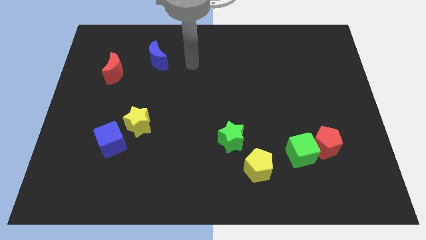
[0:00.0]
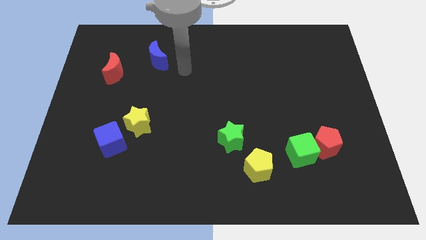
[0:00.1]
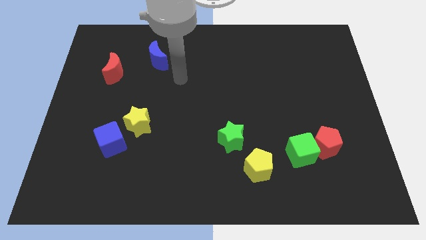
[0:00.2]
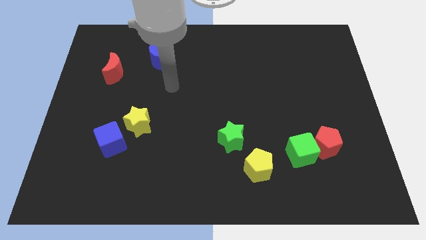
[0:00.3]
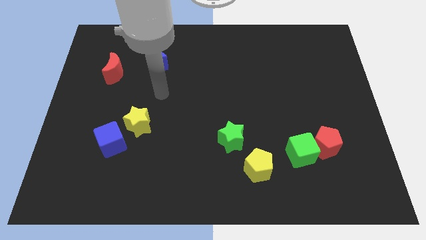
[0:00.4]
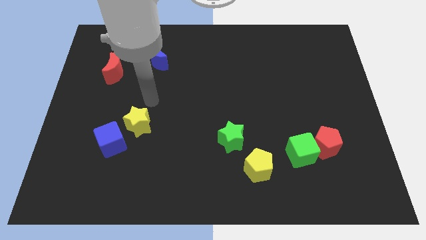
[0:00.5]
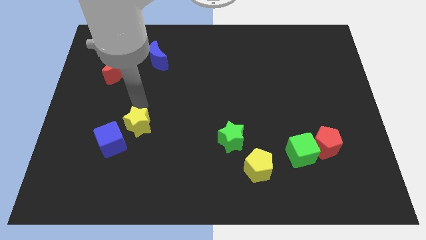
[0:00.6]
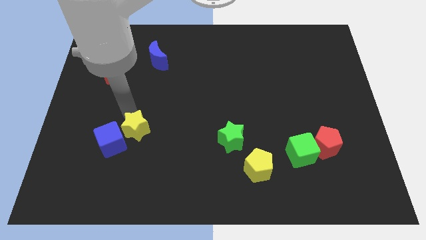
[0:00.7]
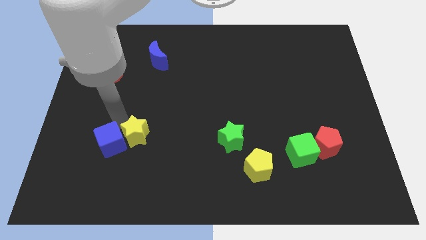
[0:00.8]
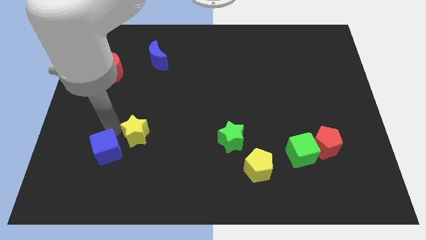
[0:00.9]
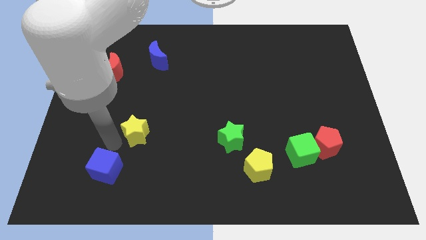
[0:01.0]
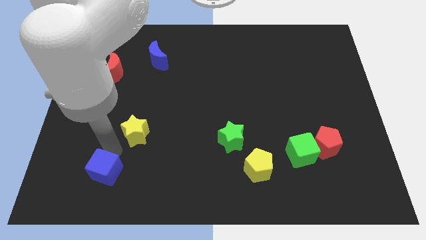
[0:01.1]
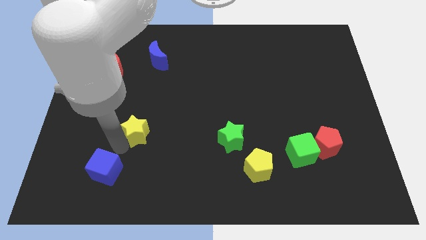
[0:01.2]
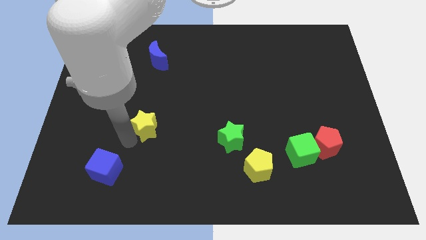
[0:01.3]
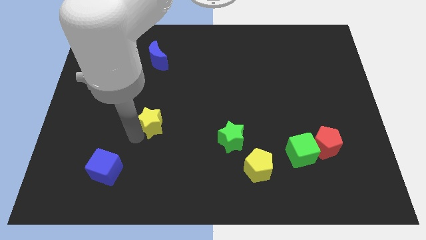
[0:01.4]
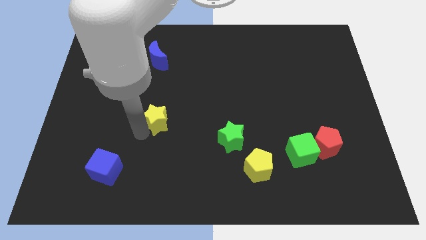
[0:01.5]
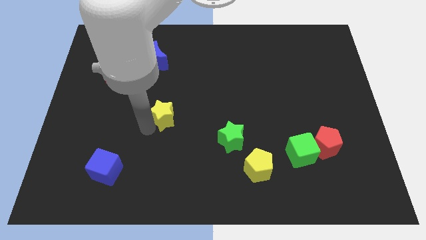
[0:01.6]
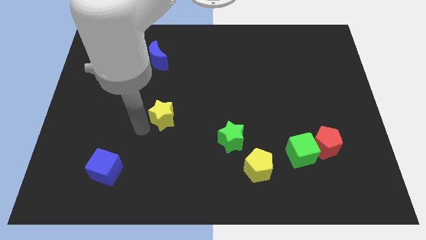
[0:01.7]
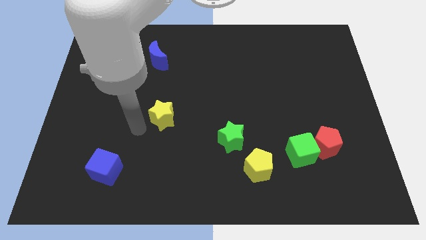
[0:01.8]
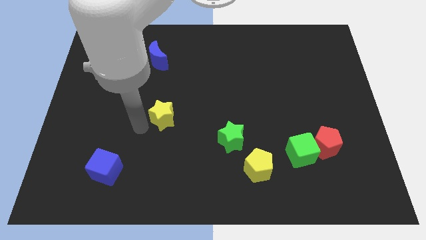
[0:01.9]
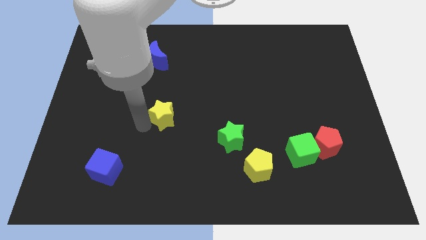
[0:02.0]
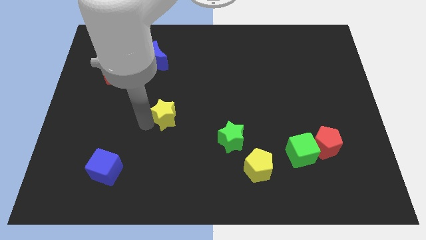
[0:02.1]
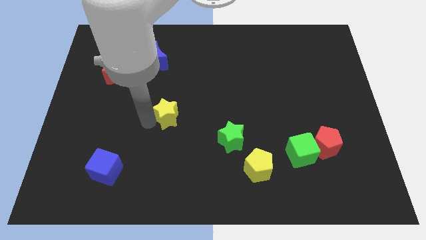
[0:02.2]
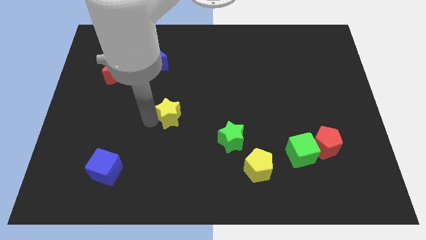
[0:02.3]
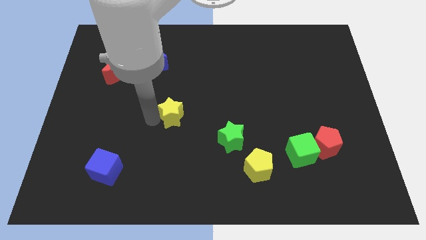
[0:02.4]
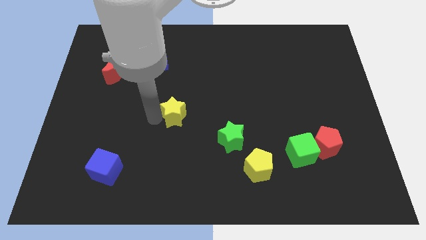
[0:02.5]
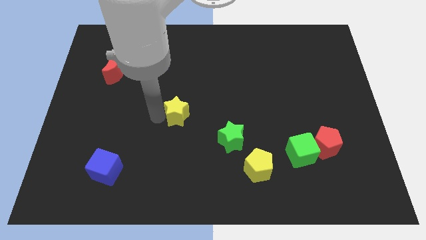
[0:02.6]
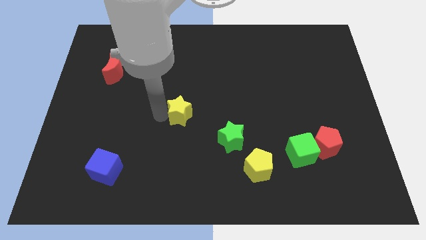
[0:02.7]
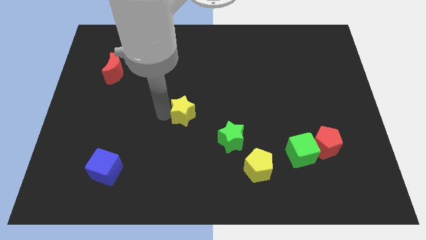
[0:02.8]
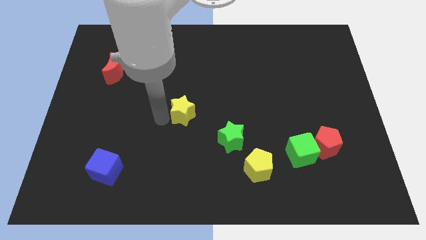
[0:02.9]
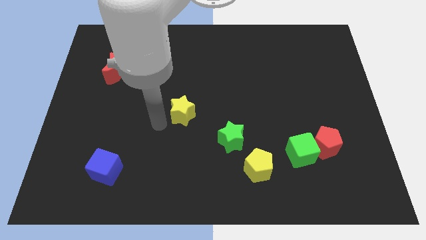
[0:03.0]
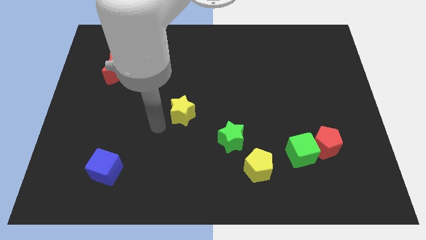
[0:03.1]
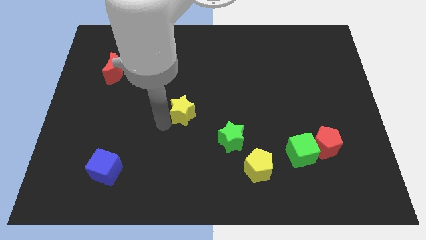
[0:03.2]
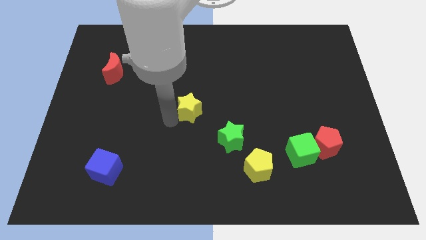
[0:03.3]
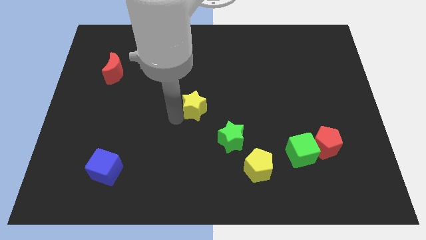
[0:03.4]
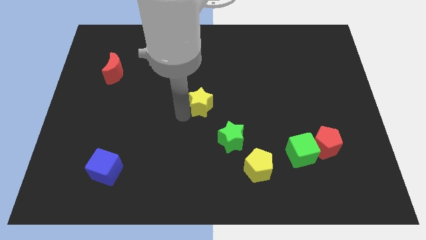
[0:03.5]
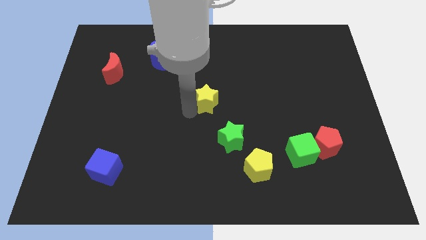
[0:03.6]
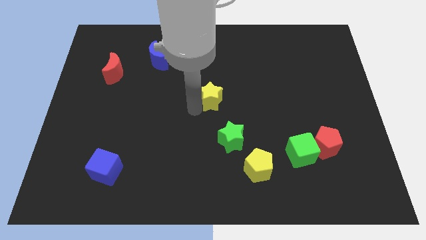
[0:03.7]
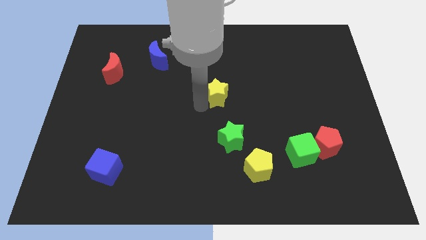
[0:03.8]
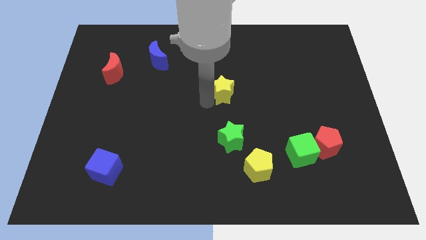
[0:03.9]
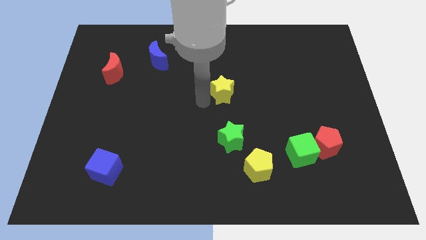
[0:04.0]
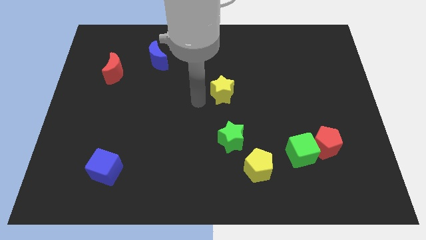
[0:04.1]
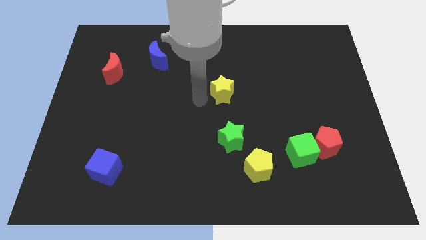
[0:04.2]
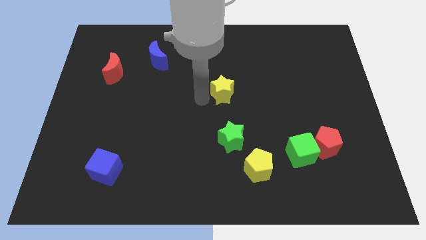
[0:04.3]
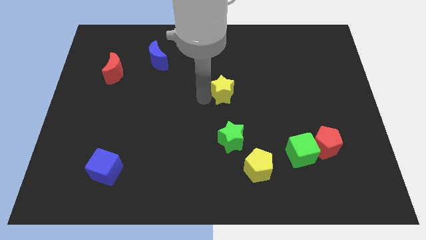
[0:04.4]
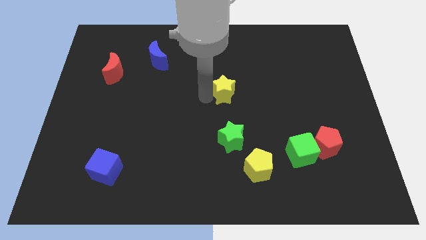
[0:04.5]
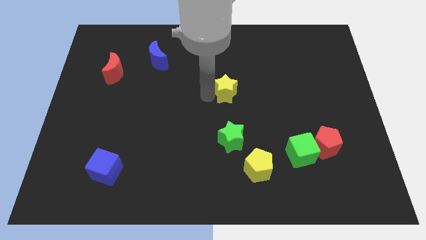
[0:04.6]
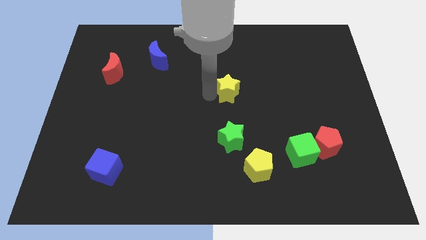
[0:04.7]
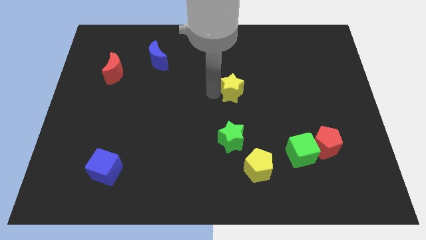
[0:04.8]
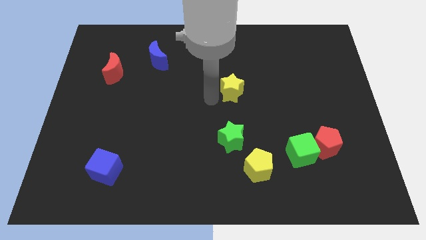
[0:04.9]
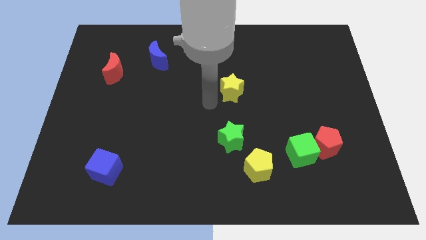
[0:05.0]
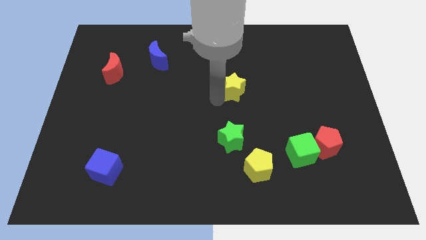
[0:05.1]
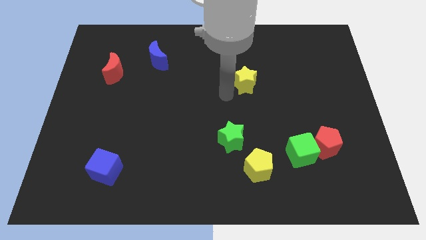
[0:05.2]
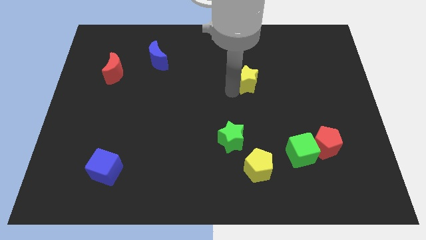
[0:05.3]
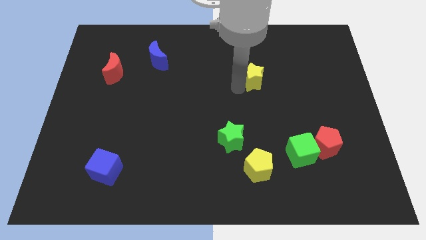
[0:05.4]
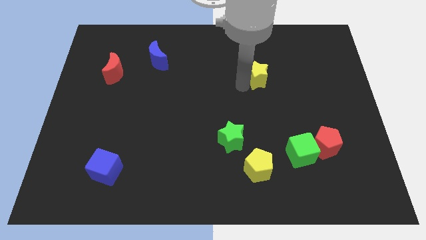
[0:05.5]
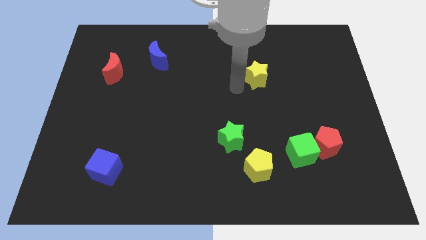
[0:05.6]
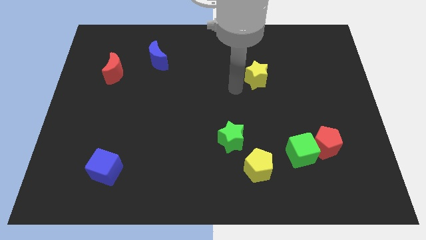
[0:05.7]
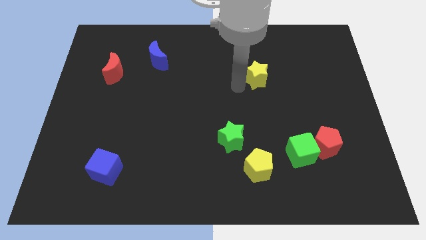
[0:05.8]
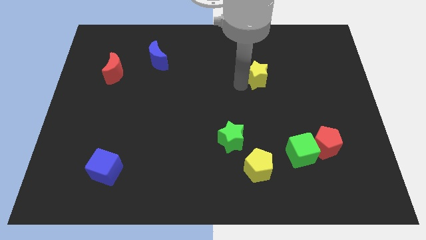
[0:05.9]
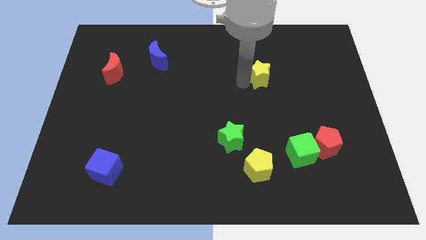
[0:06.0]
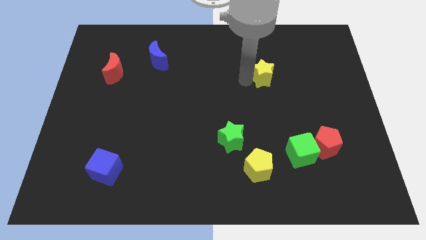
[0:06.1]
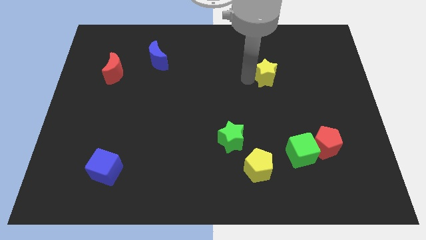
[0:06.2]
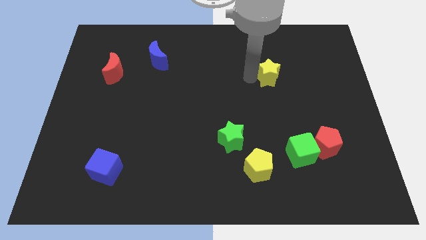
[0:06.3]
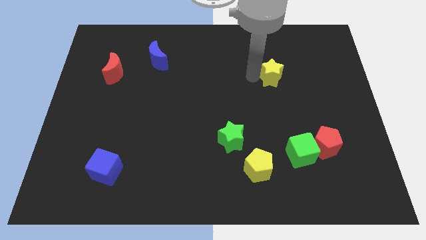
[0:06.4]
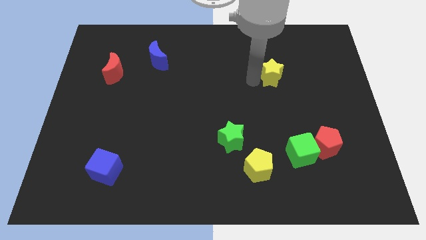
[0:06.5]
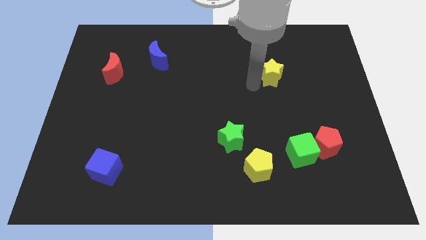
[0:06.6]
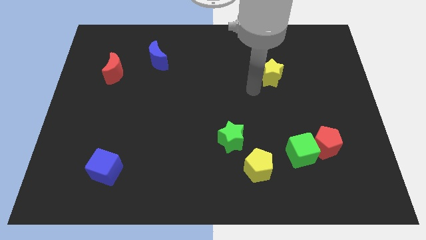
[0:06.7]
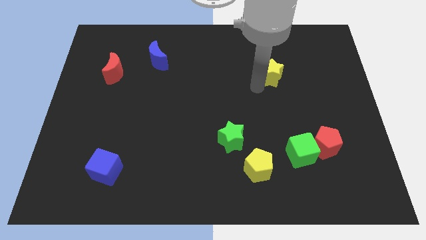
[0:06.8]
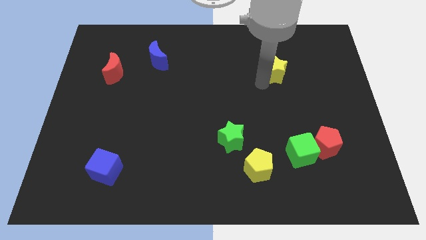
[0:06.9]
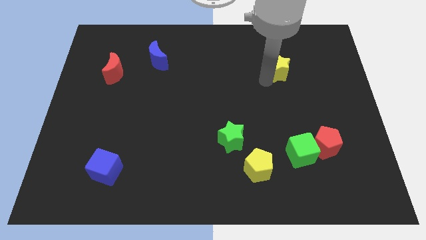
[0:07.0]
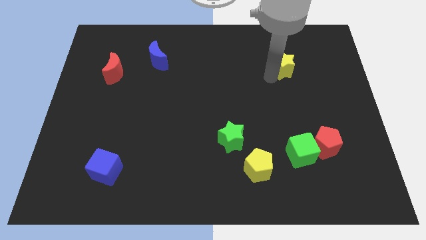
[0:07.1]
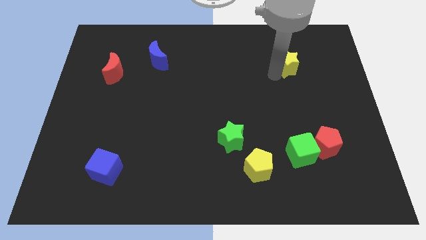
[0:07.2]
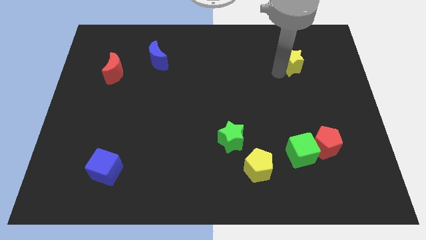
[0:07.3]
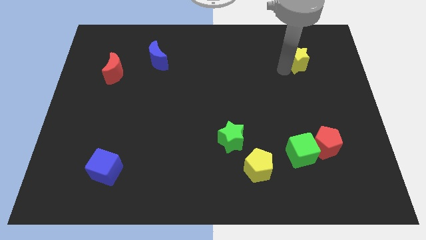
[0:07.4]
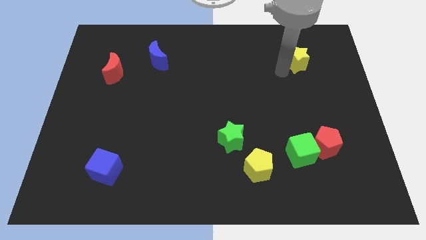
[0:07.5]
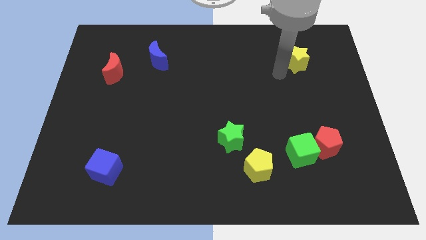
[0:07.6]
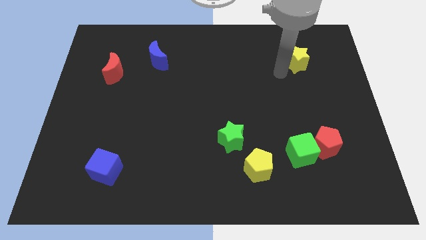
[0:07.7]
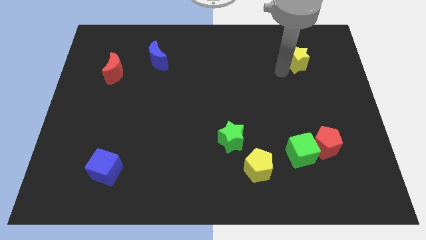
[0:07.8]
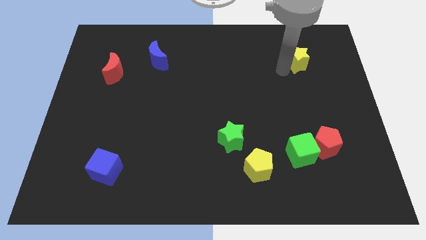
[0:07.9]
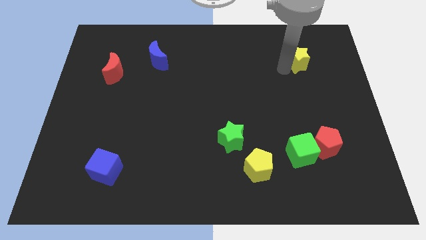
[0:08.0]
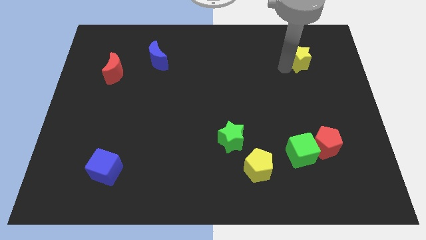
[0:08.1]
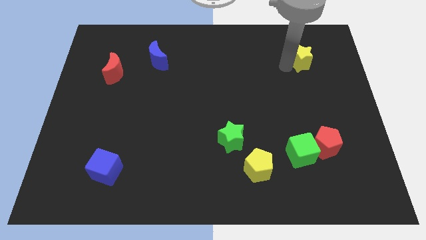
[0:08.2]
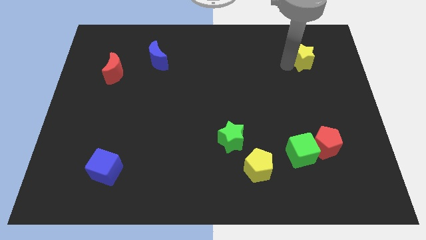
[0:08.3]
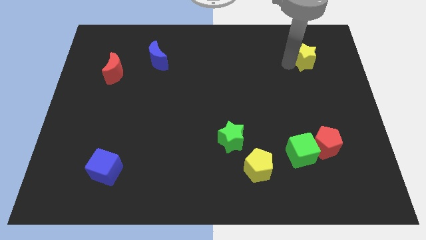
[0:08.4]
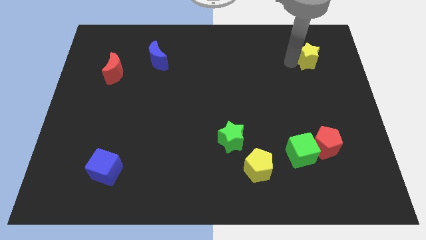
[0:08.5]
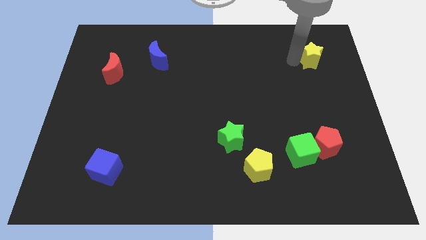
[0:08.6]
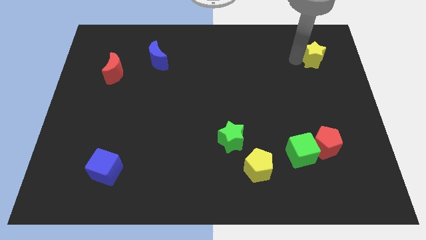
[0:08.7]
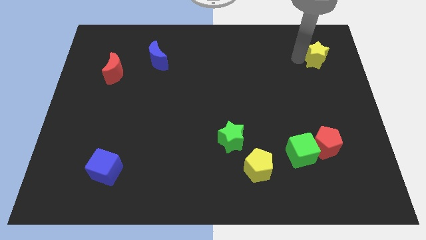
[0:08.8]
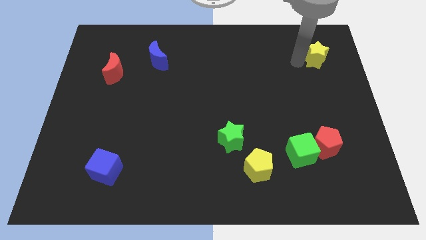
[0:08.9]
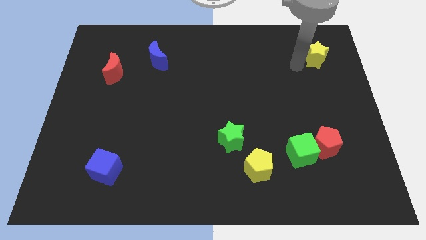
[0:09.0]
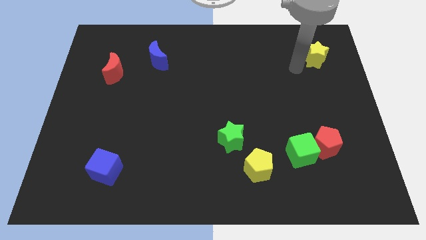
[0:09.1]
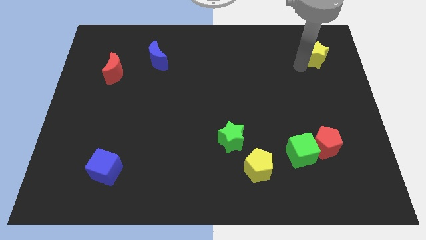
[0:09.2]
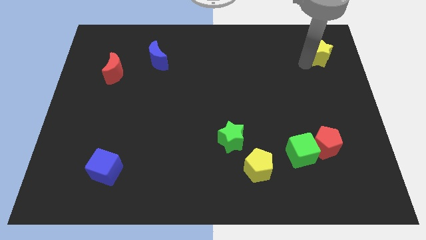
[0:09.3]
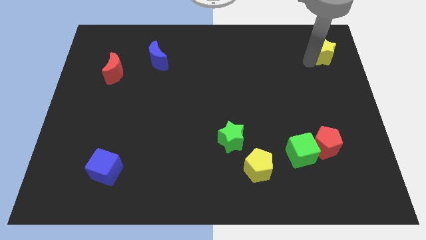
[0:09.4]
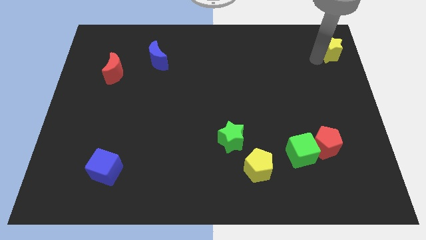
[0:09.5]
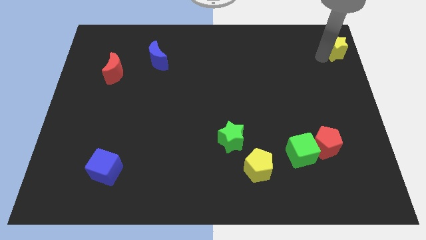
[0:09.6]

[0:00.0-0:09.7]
slide the yellow star to the top right corner
